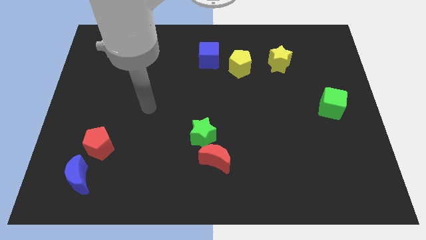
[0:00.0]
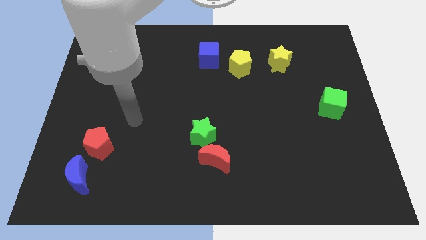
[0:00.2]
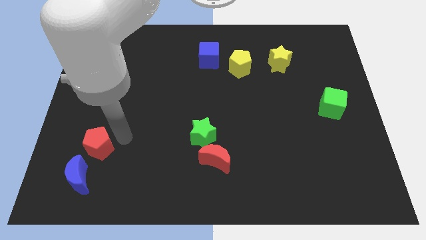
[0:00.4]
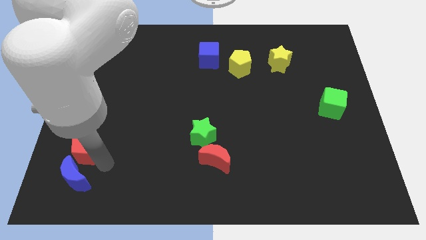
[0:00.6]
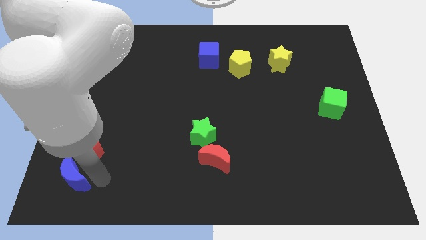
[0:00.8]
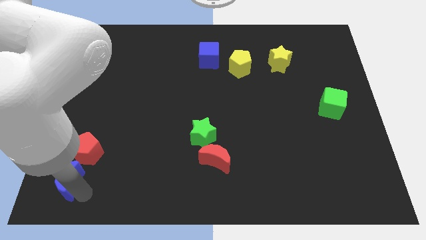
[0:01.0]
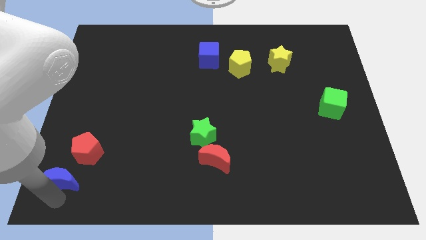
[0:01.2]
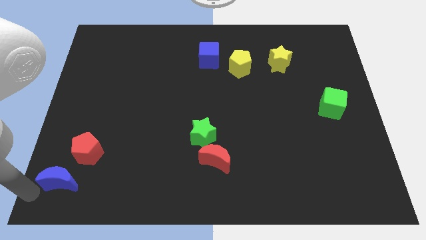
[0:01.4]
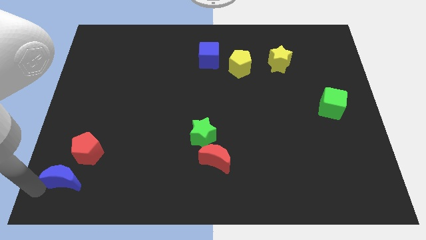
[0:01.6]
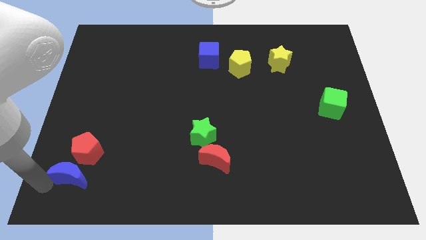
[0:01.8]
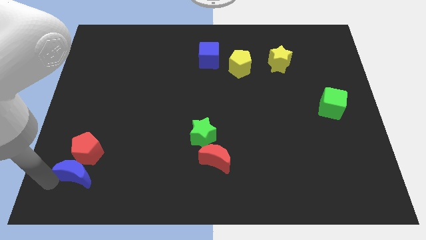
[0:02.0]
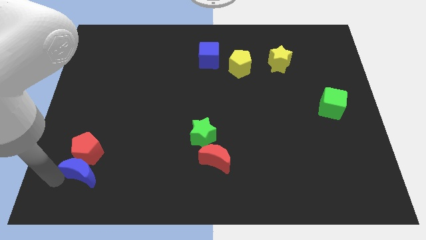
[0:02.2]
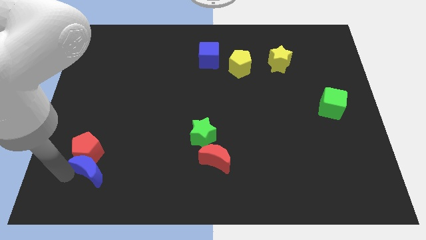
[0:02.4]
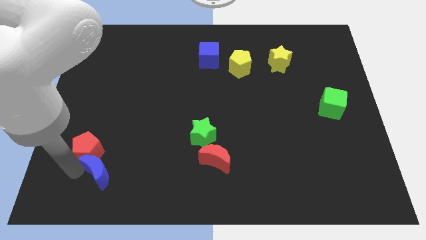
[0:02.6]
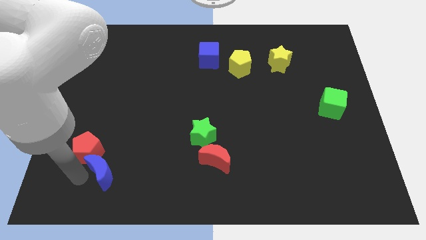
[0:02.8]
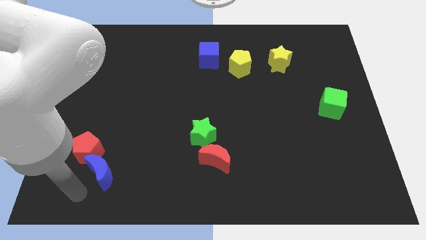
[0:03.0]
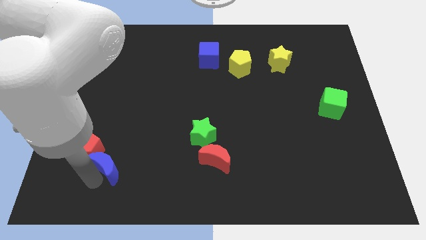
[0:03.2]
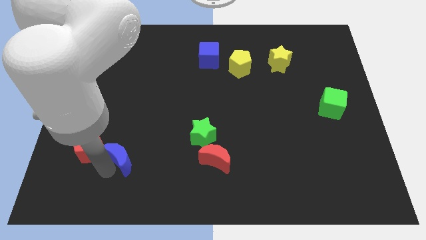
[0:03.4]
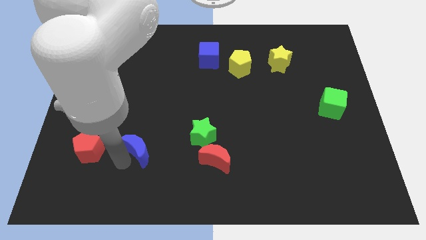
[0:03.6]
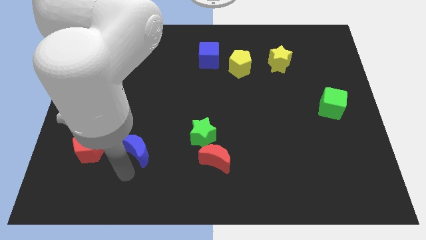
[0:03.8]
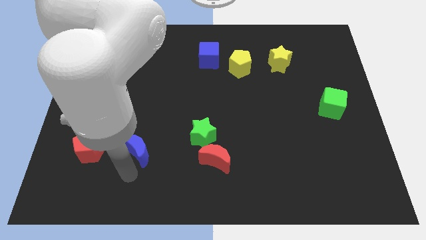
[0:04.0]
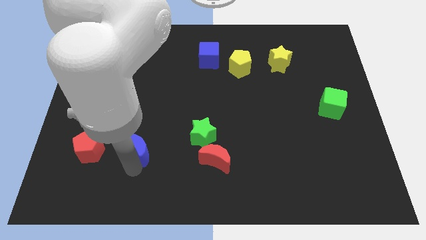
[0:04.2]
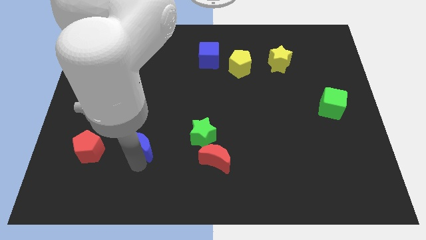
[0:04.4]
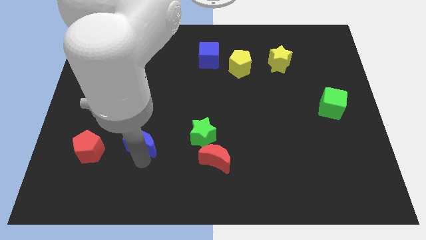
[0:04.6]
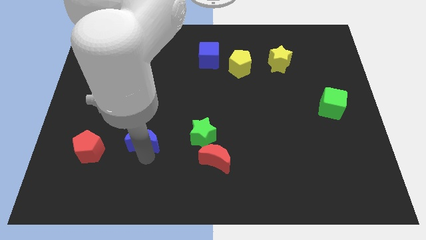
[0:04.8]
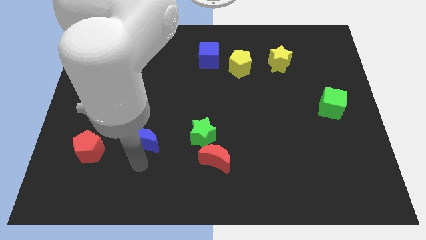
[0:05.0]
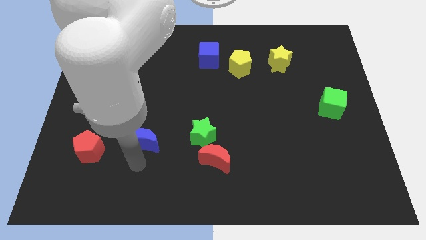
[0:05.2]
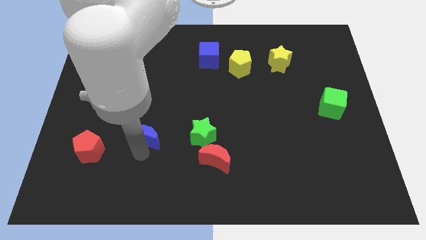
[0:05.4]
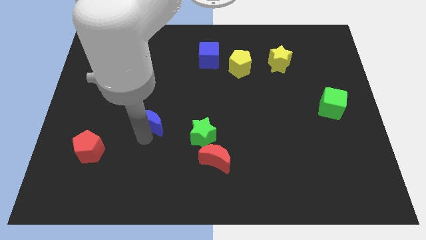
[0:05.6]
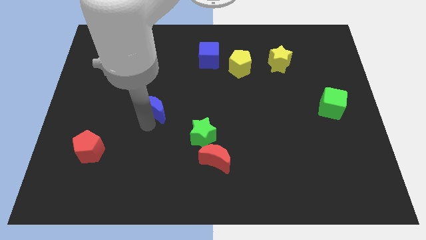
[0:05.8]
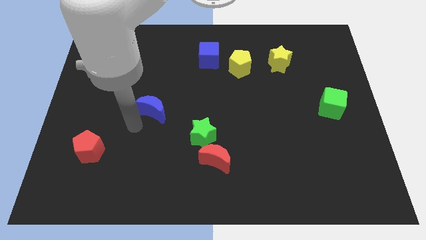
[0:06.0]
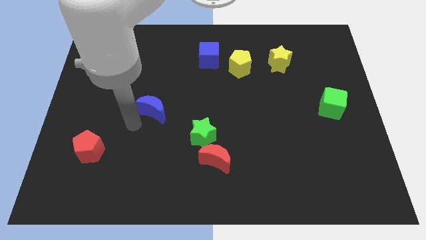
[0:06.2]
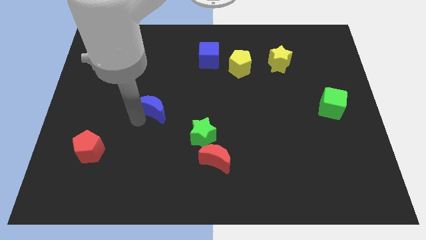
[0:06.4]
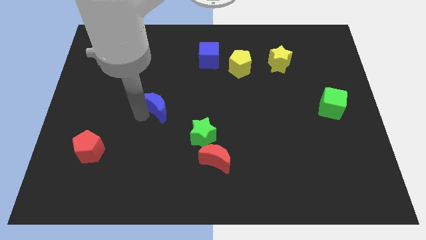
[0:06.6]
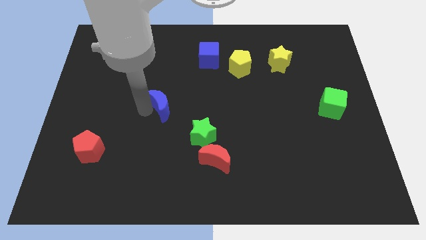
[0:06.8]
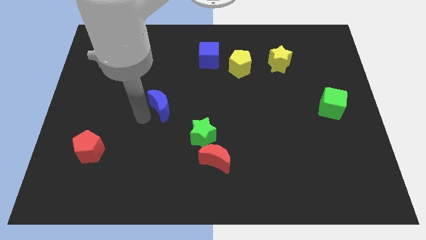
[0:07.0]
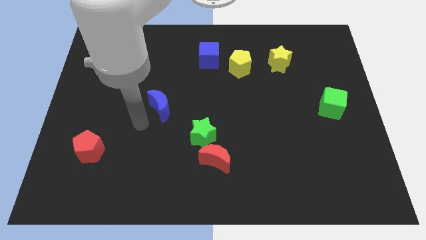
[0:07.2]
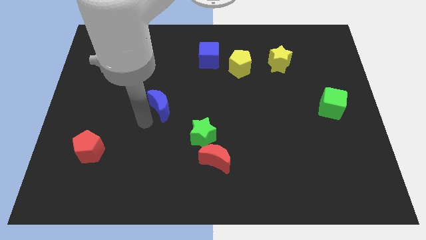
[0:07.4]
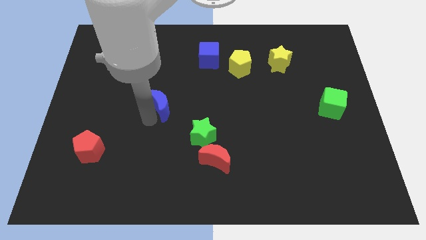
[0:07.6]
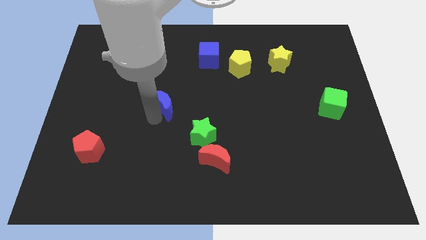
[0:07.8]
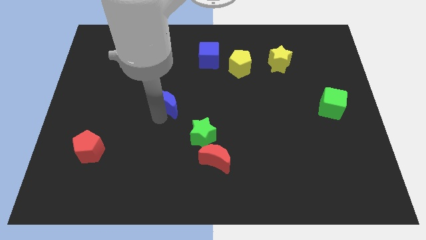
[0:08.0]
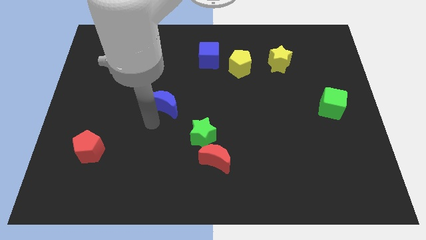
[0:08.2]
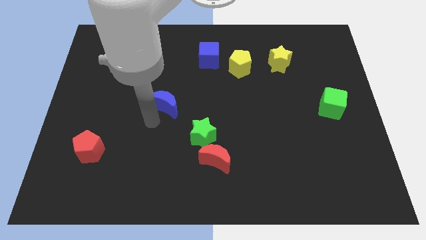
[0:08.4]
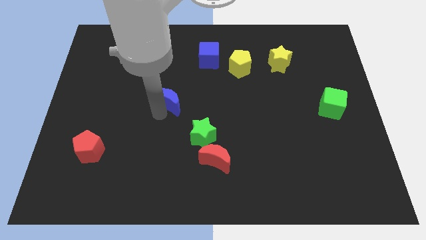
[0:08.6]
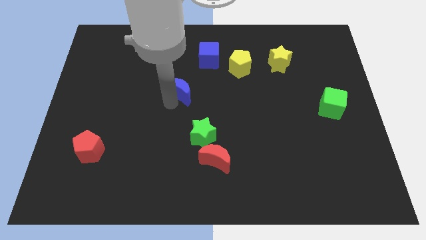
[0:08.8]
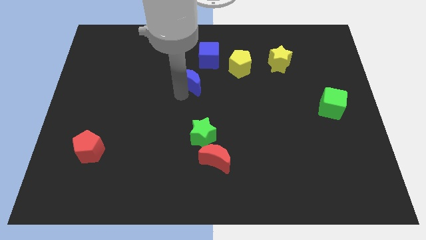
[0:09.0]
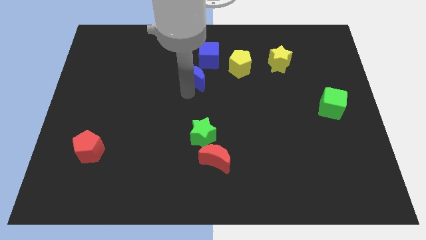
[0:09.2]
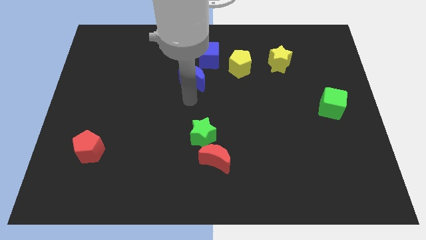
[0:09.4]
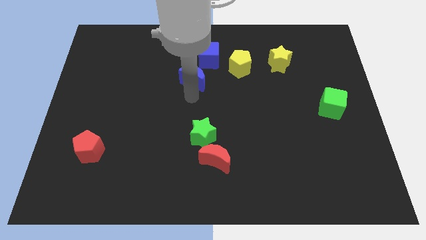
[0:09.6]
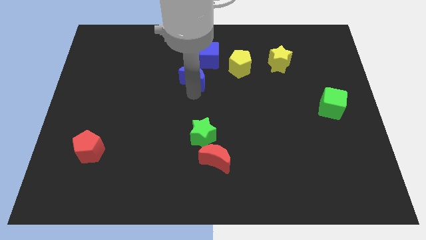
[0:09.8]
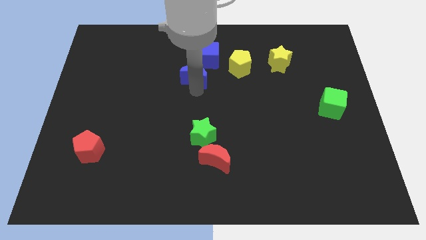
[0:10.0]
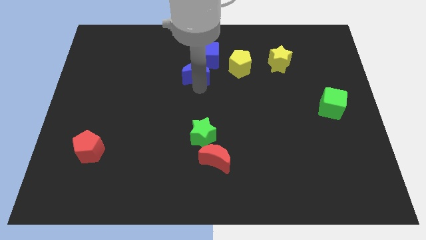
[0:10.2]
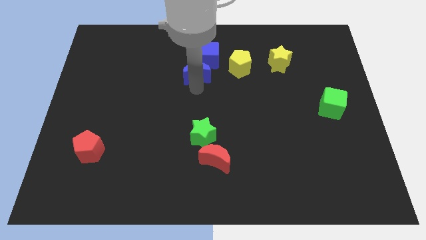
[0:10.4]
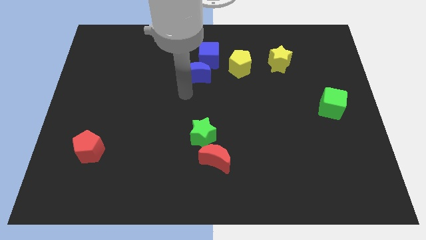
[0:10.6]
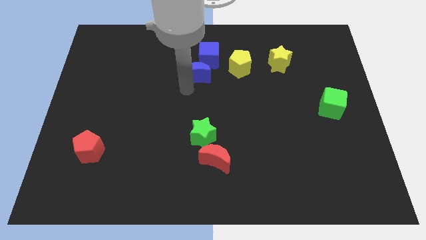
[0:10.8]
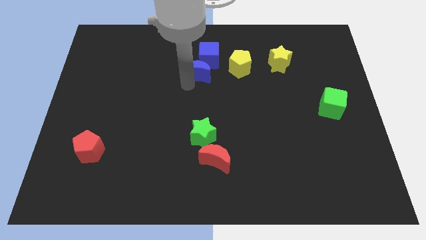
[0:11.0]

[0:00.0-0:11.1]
slide the blue moon next to the blue cube

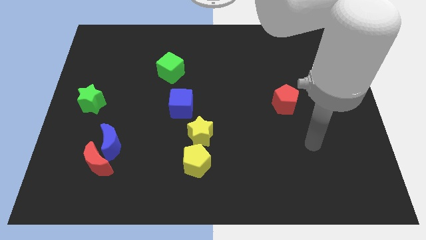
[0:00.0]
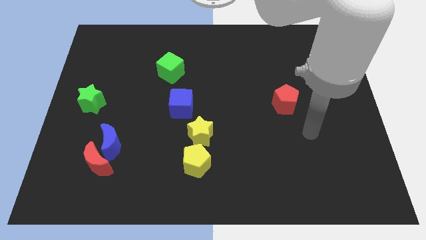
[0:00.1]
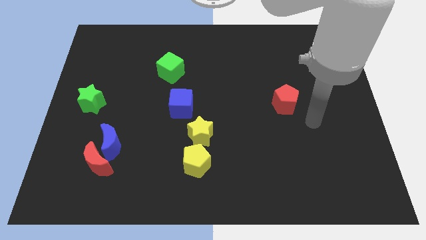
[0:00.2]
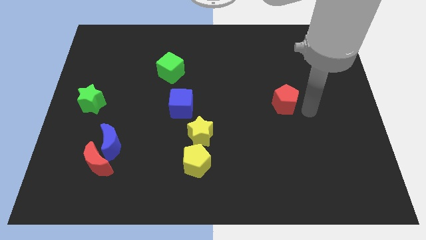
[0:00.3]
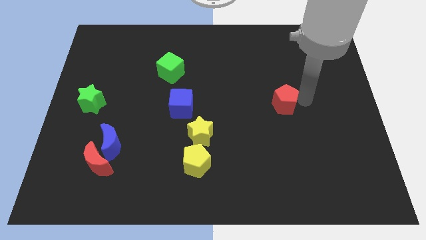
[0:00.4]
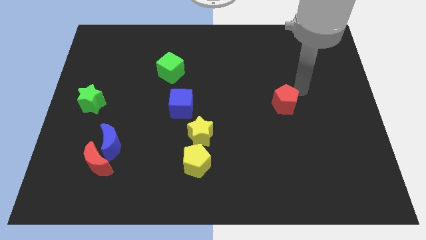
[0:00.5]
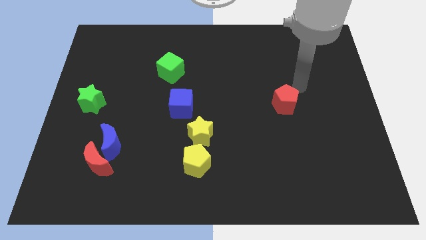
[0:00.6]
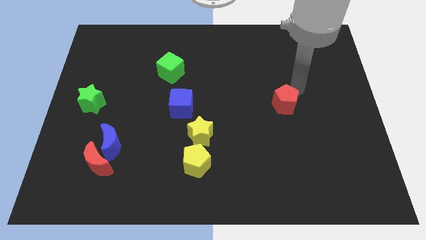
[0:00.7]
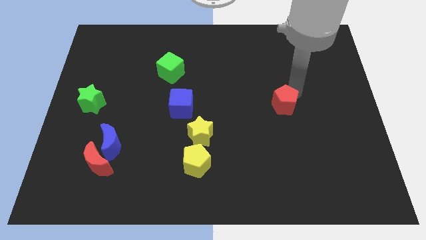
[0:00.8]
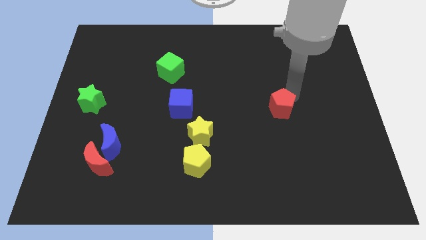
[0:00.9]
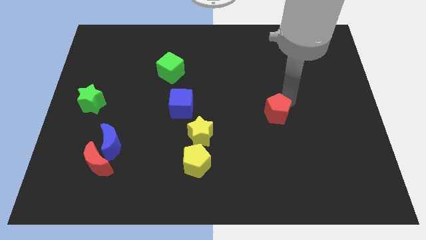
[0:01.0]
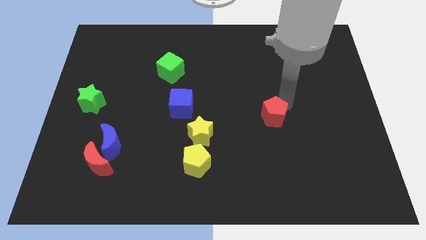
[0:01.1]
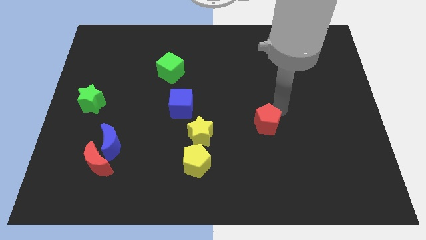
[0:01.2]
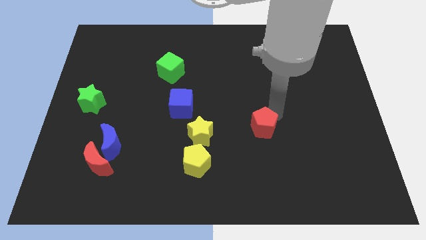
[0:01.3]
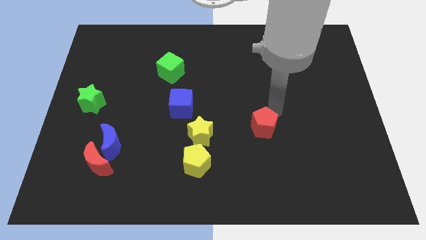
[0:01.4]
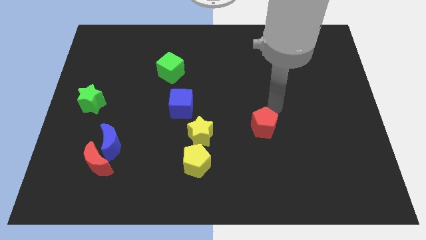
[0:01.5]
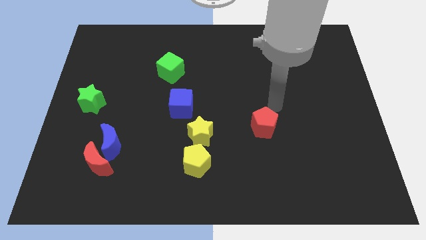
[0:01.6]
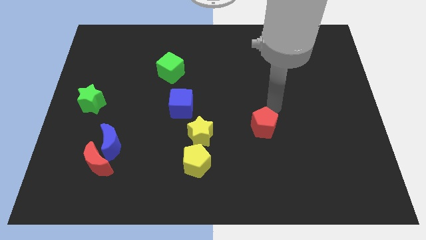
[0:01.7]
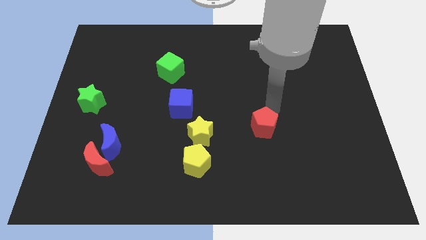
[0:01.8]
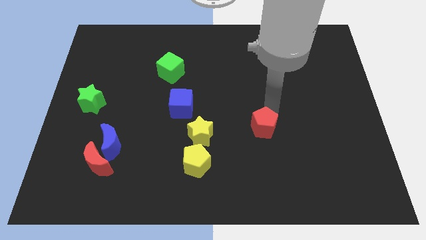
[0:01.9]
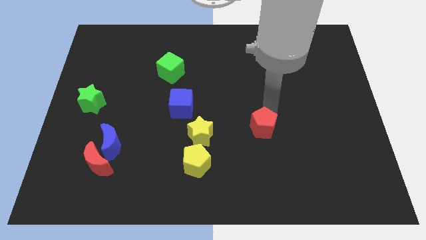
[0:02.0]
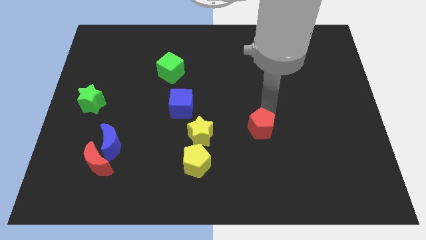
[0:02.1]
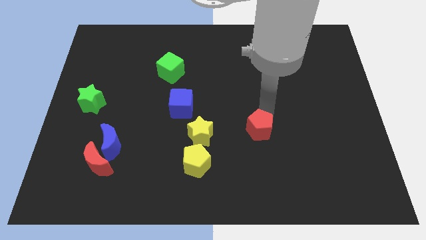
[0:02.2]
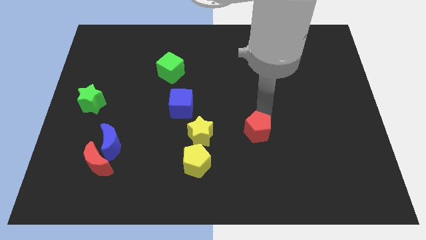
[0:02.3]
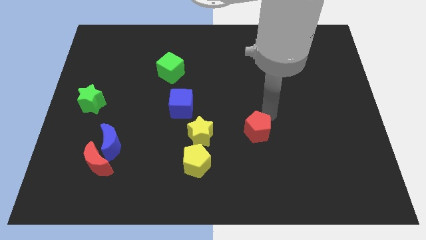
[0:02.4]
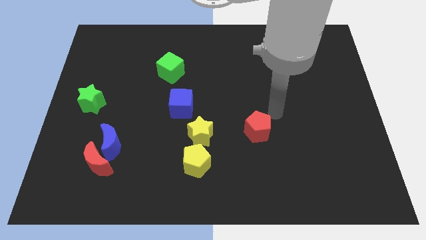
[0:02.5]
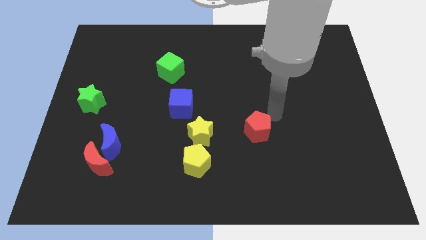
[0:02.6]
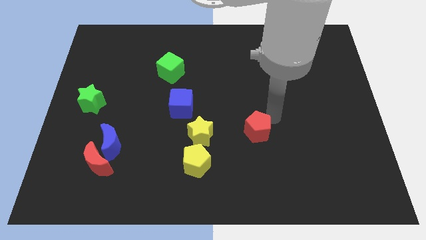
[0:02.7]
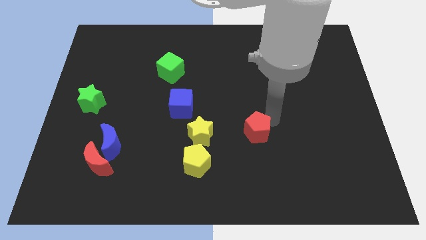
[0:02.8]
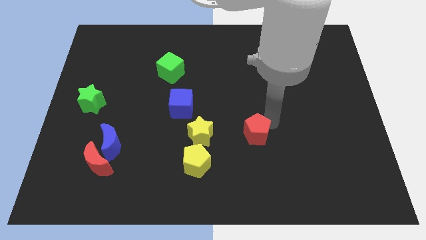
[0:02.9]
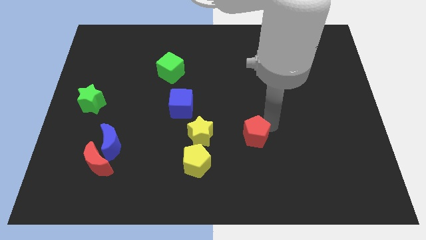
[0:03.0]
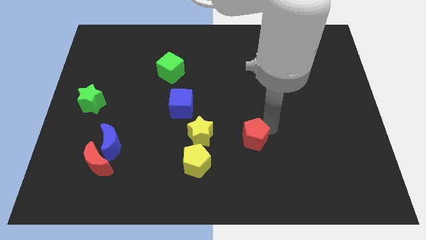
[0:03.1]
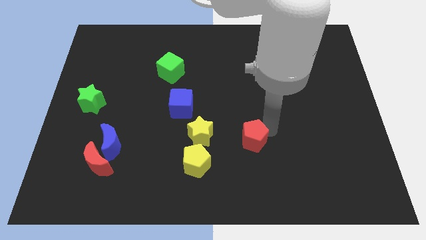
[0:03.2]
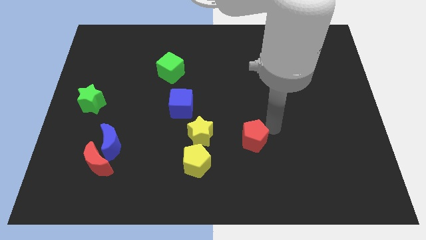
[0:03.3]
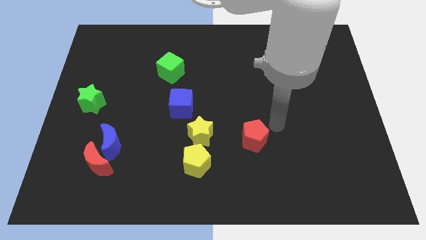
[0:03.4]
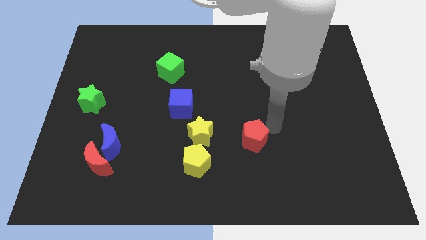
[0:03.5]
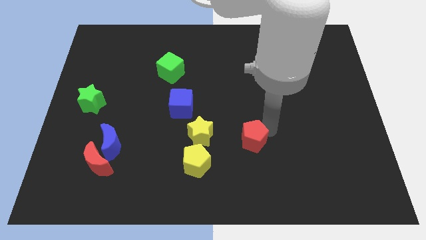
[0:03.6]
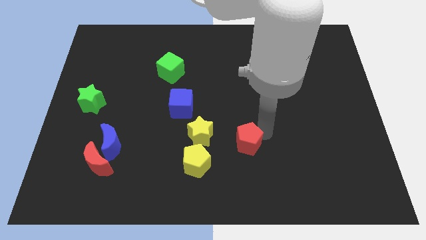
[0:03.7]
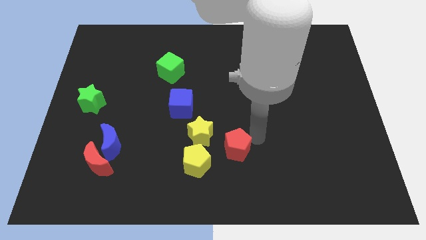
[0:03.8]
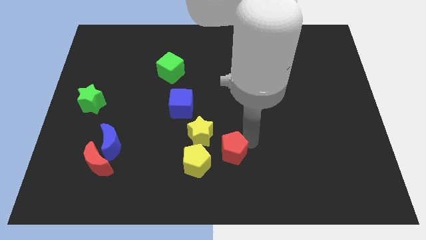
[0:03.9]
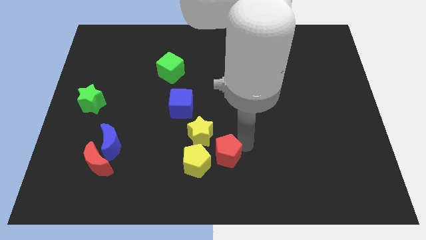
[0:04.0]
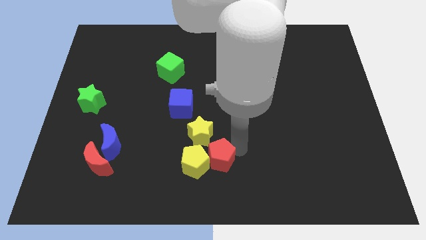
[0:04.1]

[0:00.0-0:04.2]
put the red pentagon next to the yellow pentagon
